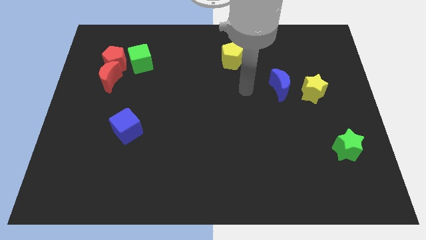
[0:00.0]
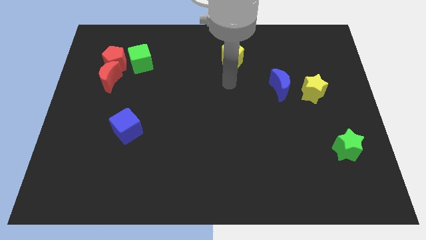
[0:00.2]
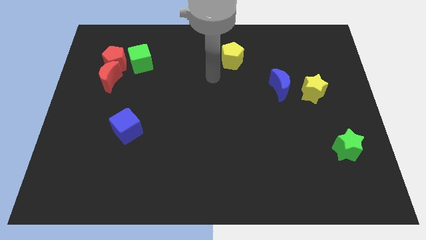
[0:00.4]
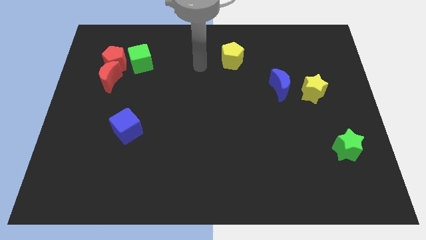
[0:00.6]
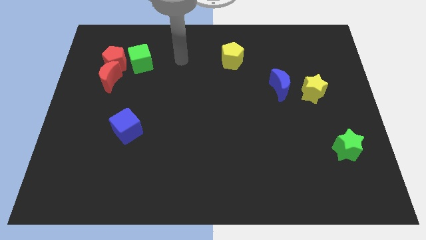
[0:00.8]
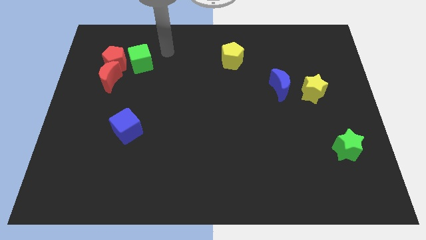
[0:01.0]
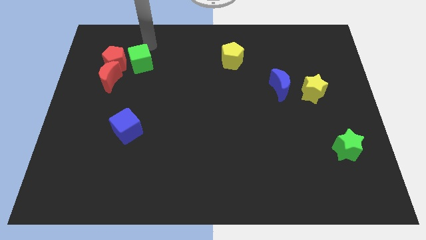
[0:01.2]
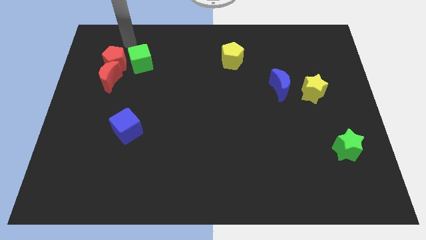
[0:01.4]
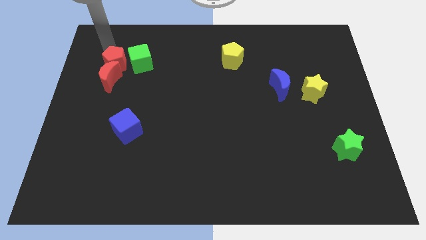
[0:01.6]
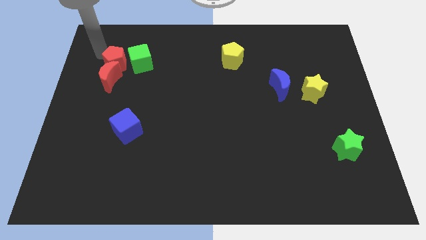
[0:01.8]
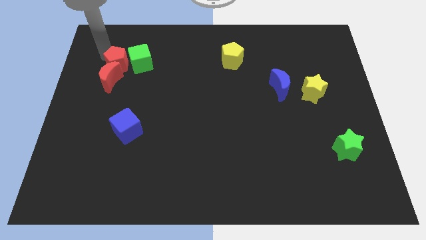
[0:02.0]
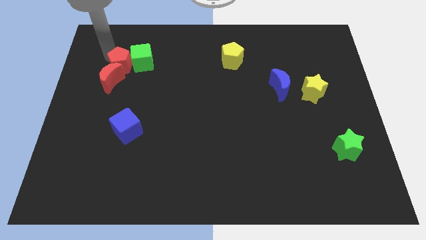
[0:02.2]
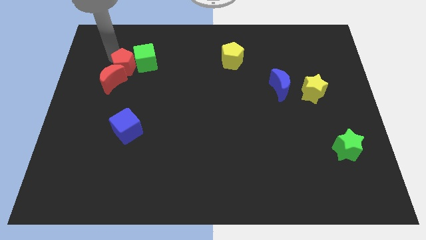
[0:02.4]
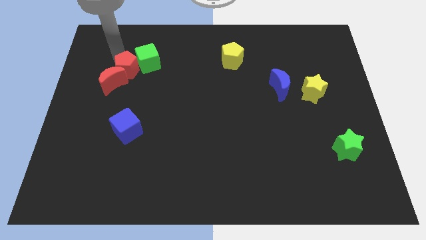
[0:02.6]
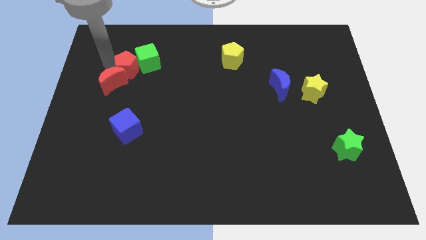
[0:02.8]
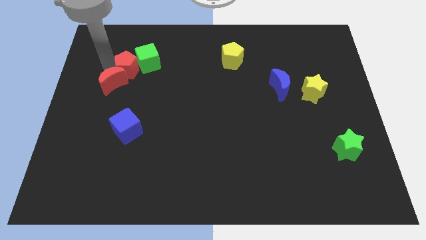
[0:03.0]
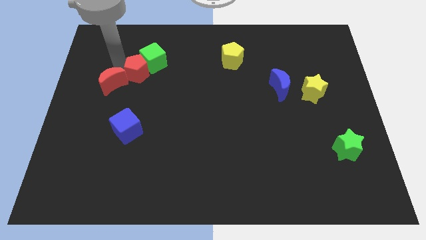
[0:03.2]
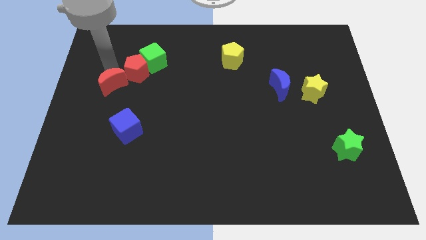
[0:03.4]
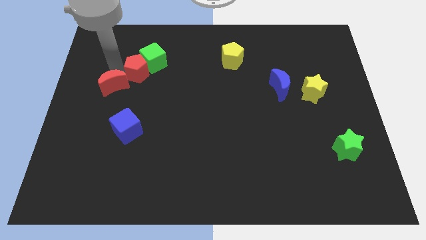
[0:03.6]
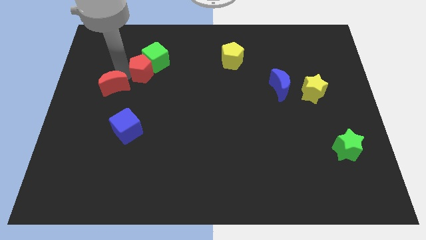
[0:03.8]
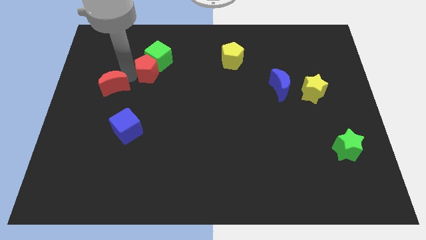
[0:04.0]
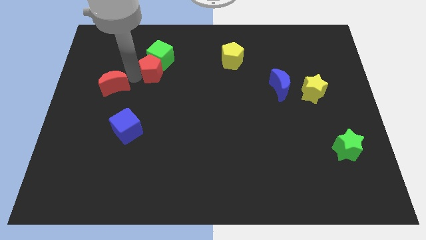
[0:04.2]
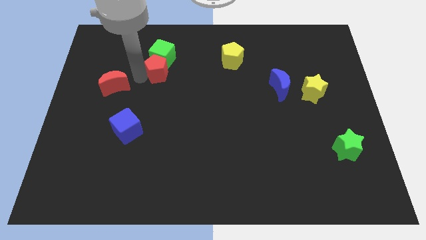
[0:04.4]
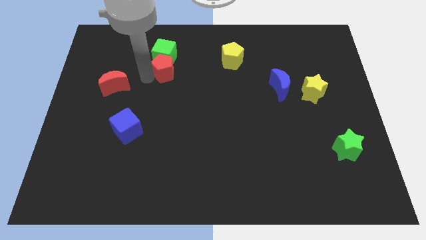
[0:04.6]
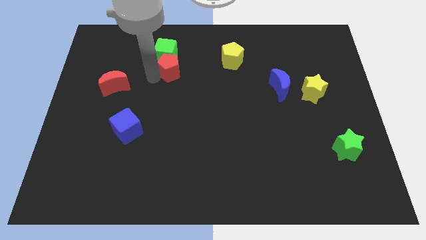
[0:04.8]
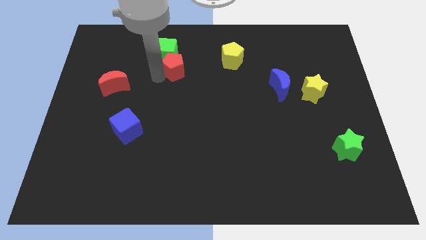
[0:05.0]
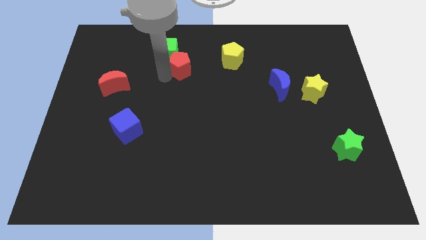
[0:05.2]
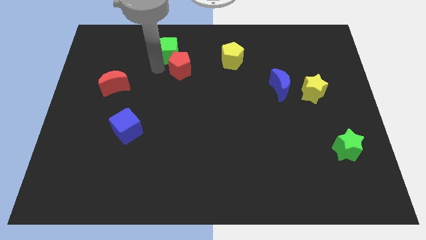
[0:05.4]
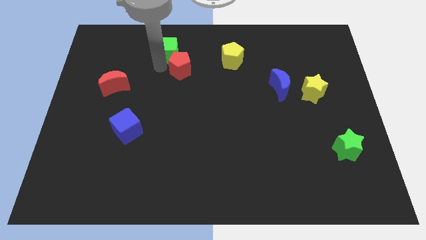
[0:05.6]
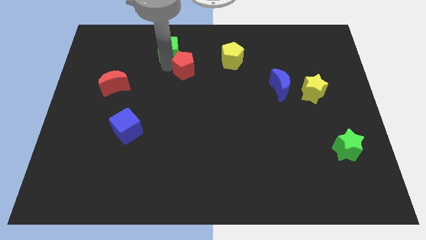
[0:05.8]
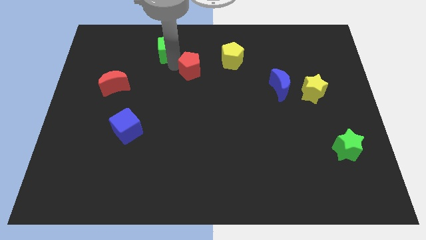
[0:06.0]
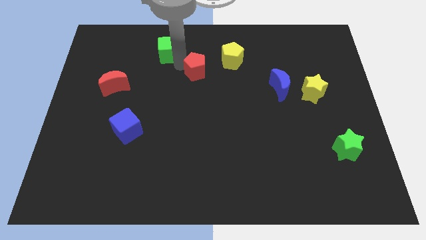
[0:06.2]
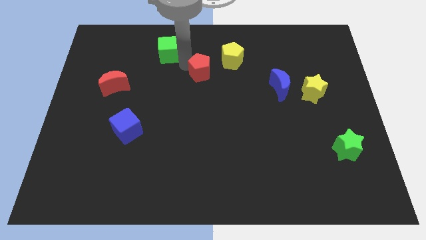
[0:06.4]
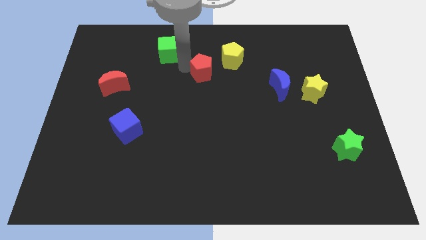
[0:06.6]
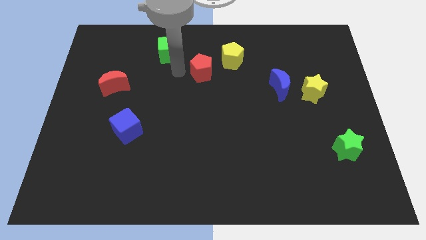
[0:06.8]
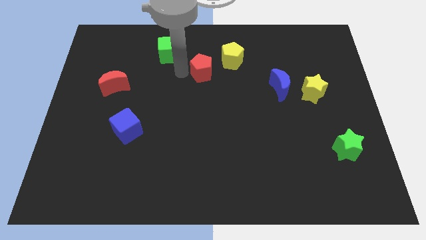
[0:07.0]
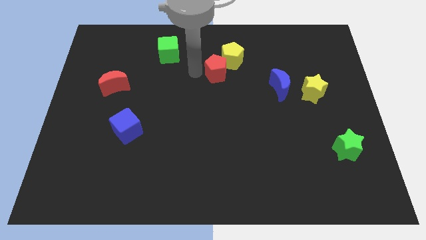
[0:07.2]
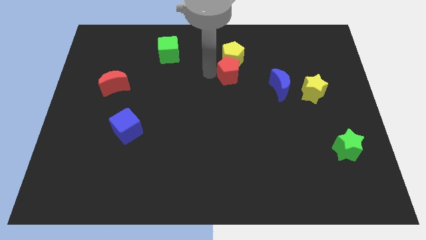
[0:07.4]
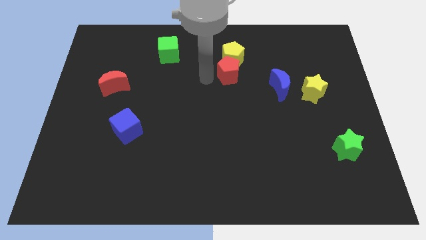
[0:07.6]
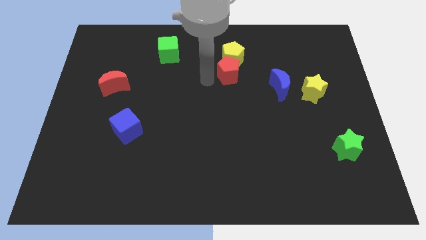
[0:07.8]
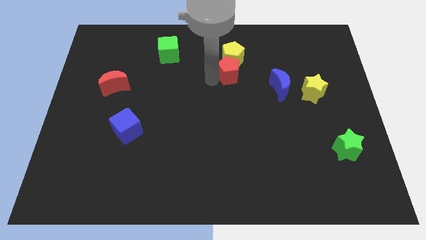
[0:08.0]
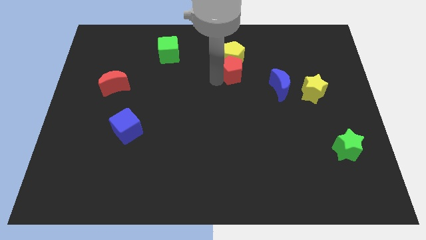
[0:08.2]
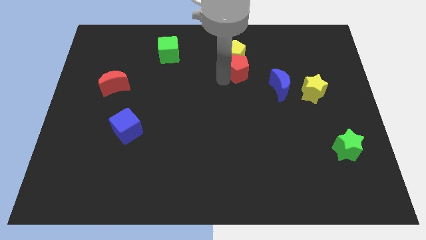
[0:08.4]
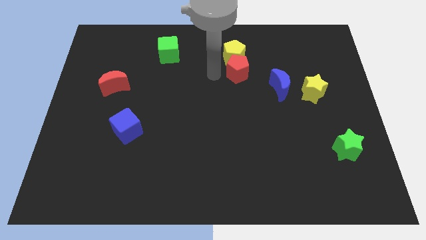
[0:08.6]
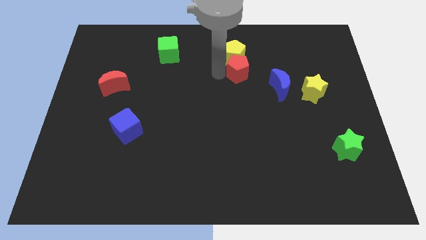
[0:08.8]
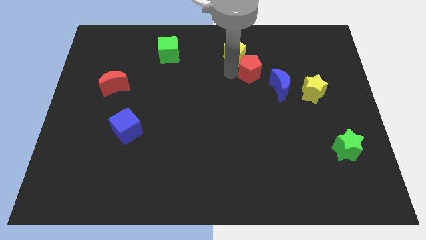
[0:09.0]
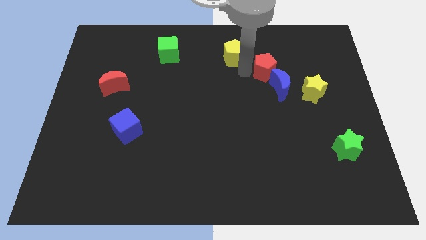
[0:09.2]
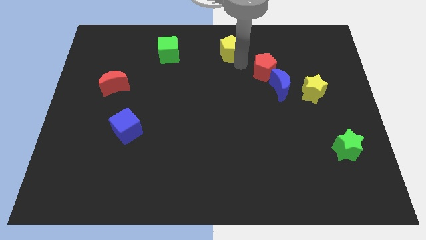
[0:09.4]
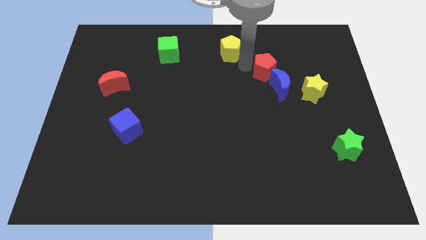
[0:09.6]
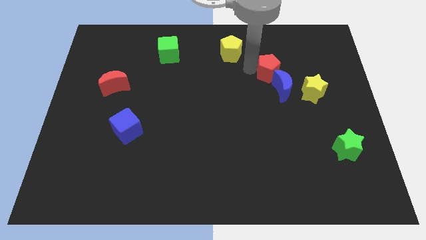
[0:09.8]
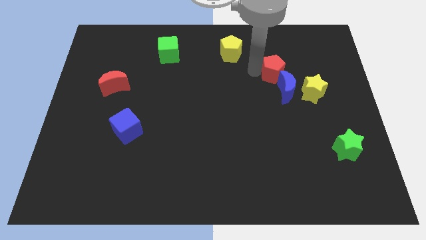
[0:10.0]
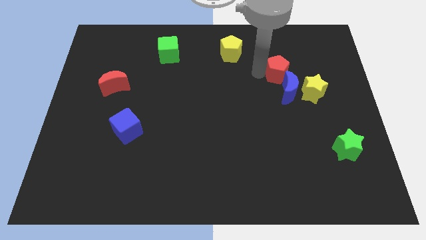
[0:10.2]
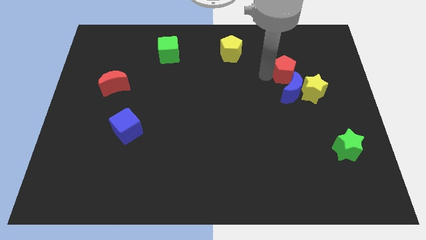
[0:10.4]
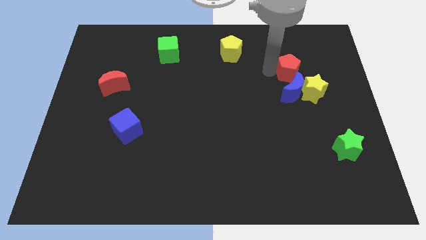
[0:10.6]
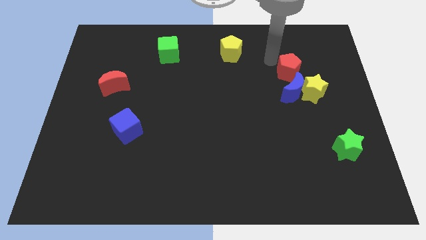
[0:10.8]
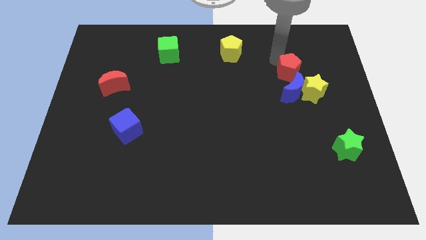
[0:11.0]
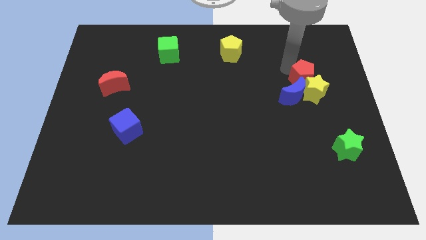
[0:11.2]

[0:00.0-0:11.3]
push the red pentagon to the yellow star

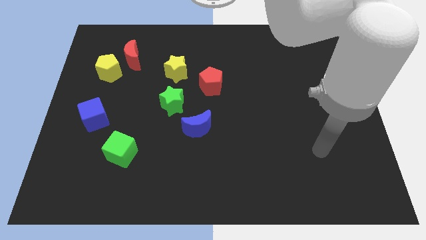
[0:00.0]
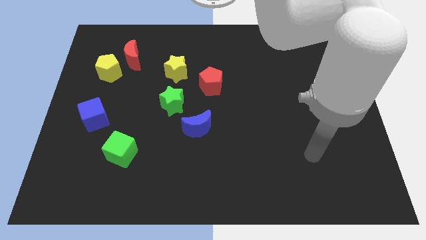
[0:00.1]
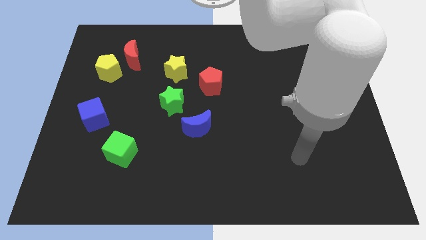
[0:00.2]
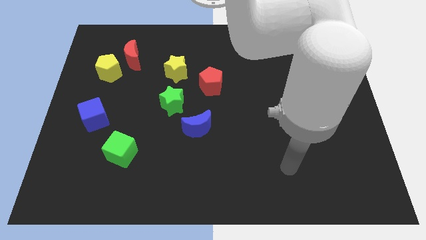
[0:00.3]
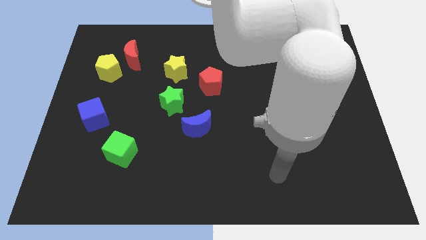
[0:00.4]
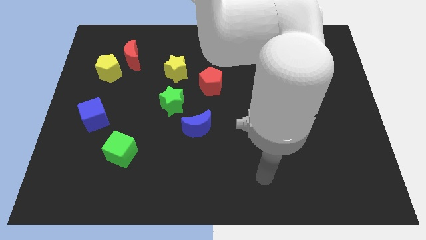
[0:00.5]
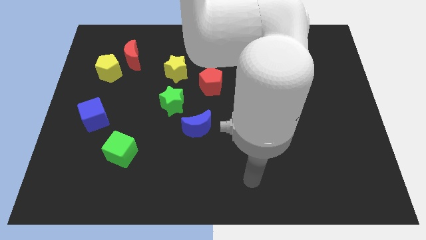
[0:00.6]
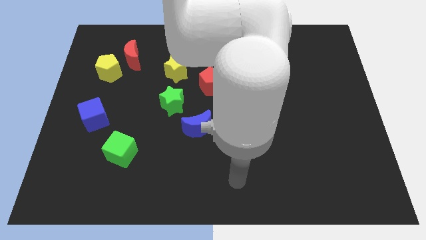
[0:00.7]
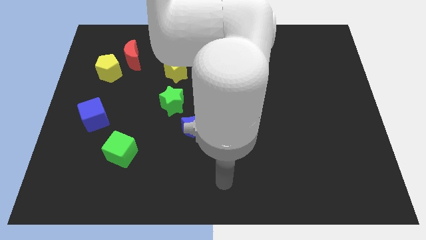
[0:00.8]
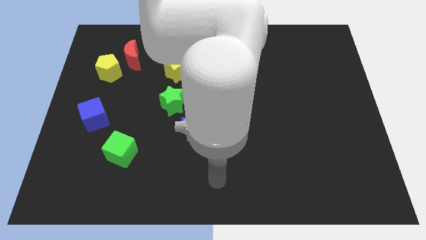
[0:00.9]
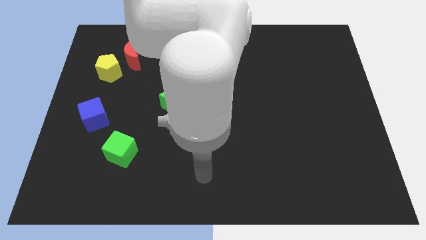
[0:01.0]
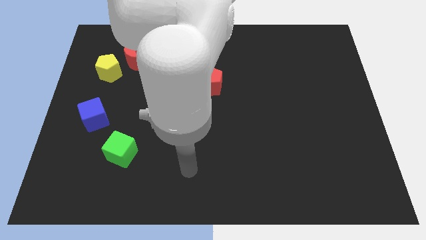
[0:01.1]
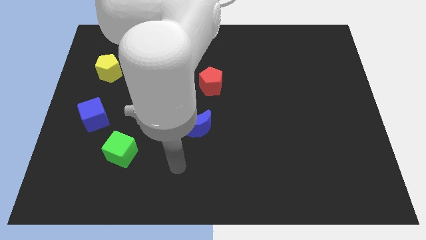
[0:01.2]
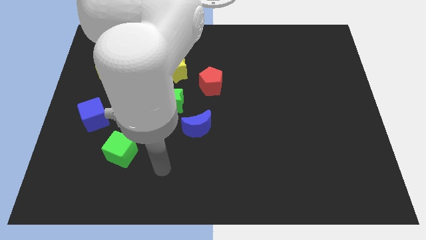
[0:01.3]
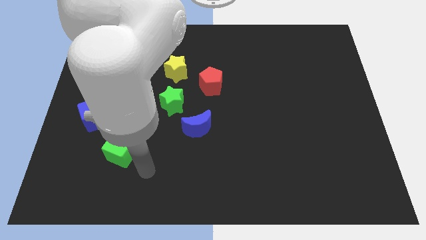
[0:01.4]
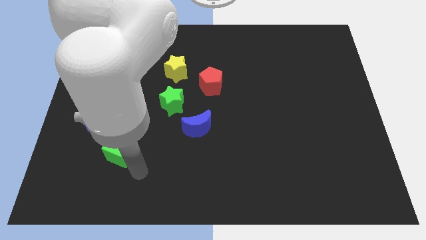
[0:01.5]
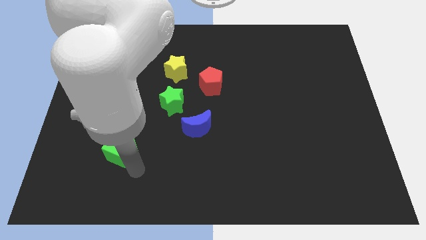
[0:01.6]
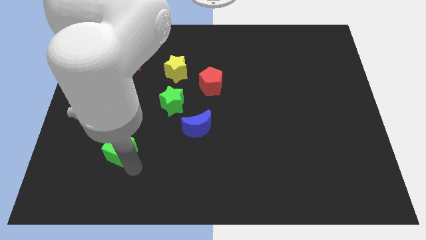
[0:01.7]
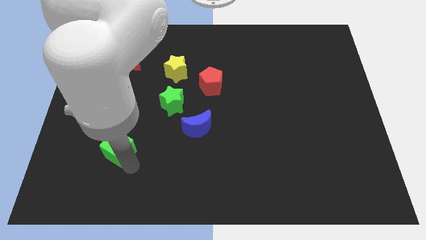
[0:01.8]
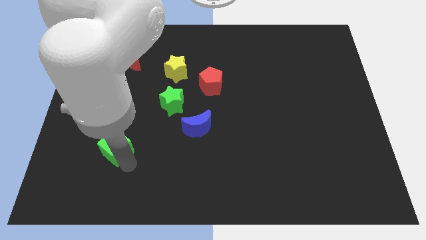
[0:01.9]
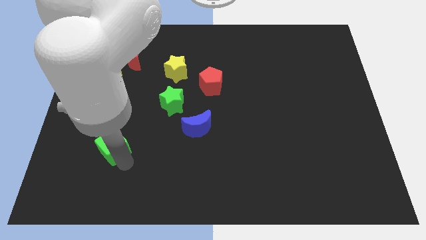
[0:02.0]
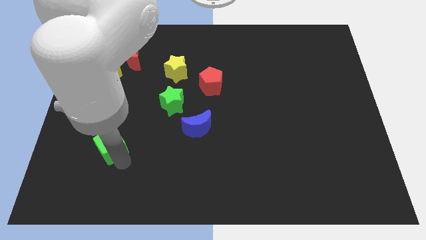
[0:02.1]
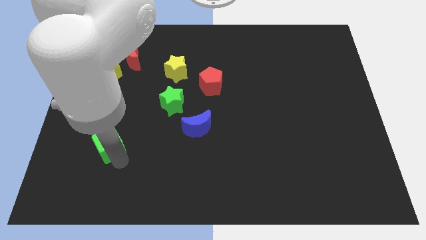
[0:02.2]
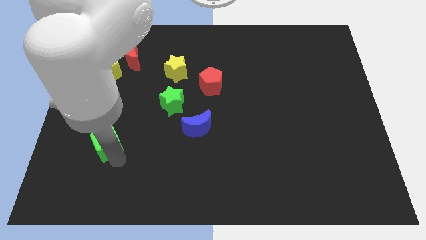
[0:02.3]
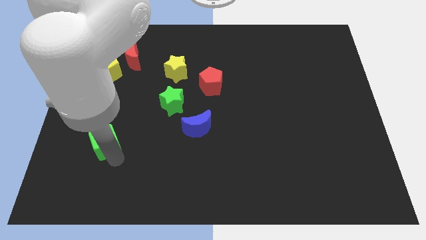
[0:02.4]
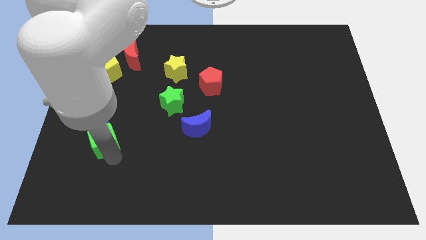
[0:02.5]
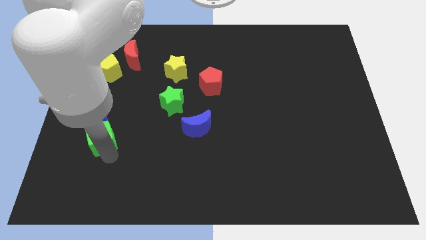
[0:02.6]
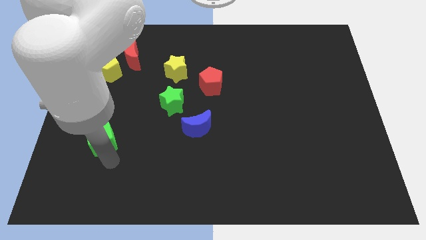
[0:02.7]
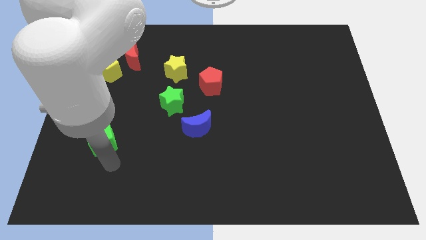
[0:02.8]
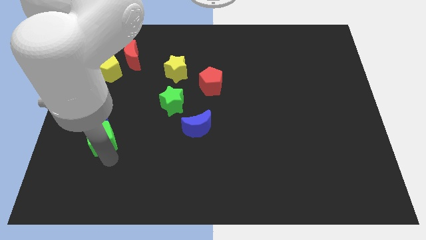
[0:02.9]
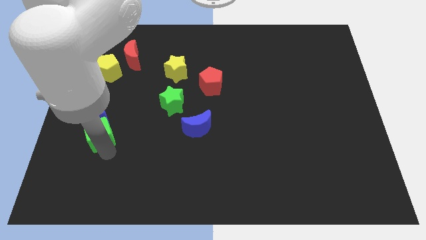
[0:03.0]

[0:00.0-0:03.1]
push the green cube to the blue cube
